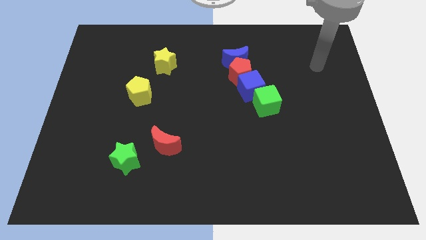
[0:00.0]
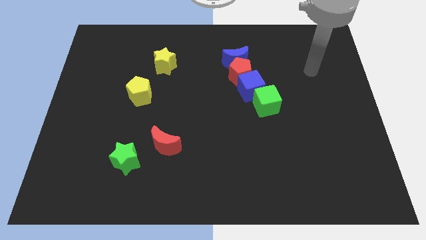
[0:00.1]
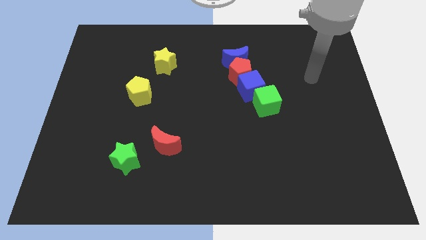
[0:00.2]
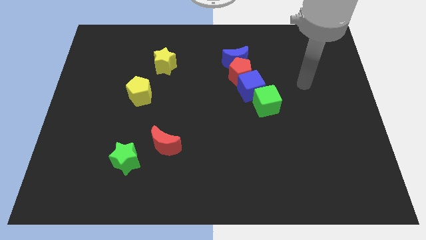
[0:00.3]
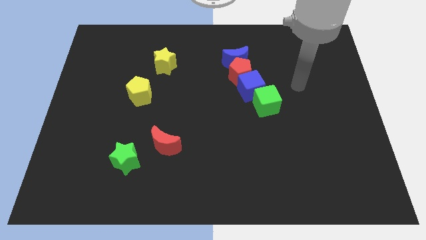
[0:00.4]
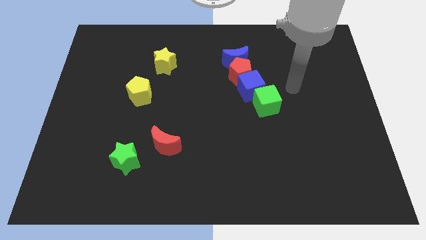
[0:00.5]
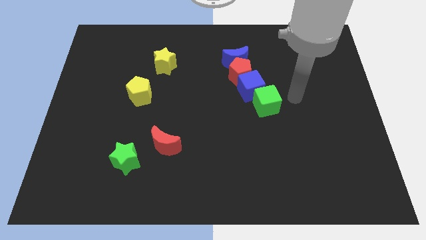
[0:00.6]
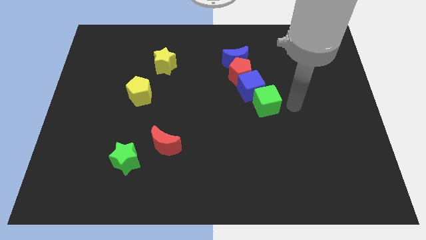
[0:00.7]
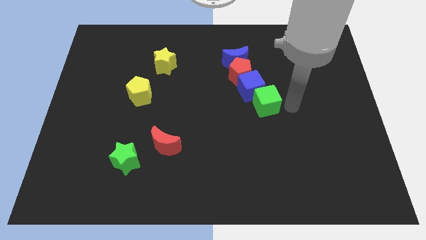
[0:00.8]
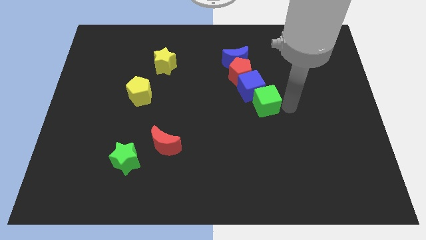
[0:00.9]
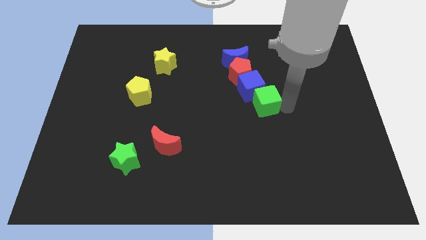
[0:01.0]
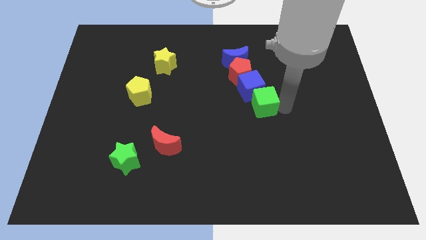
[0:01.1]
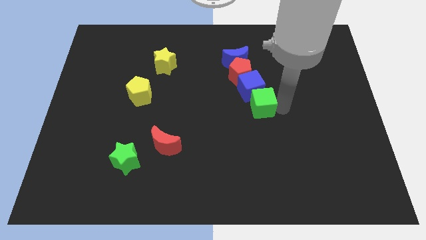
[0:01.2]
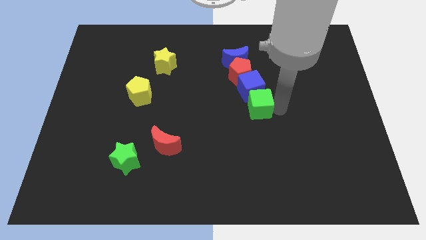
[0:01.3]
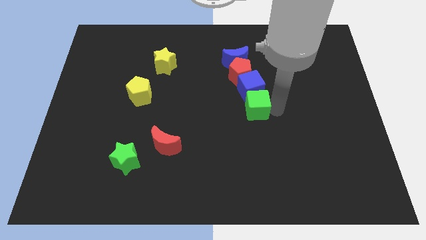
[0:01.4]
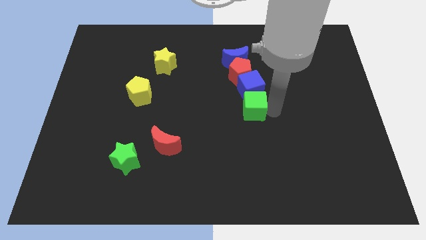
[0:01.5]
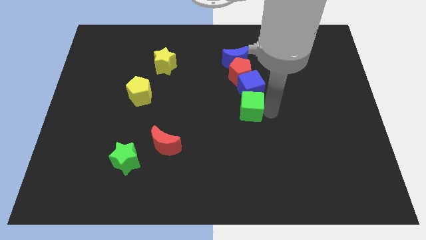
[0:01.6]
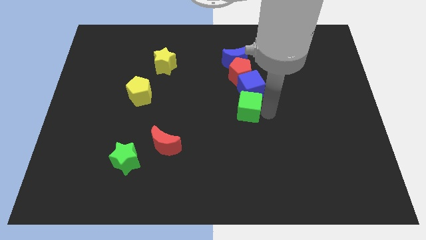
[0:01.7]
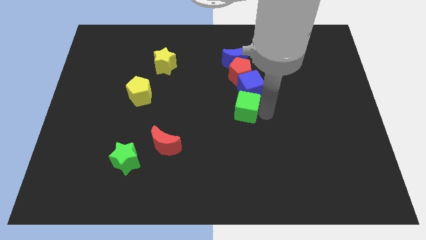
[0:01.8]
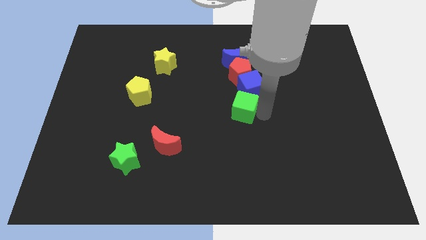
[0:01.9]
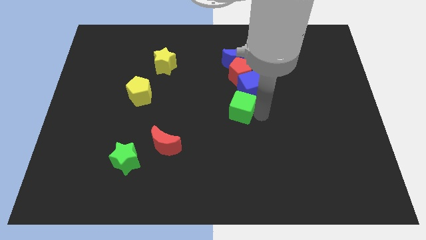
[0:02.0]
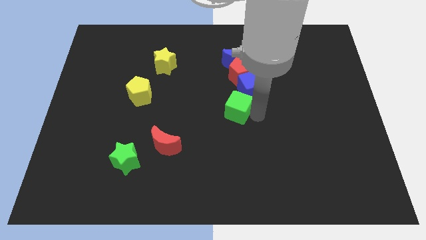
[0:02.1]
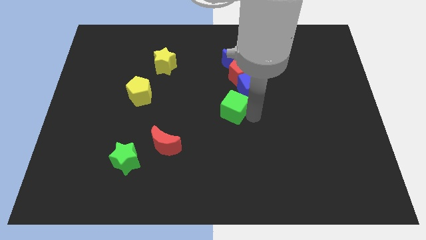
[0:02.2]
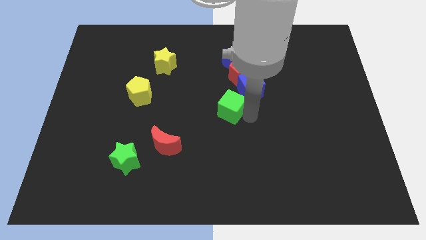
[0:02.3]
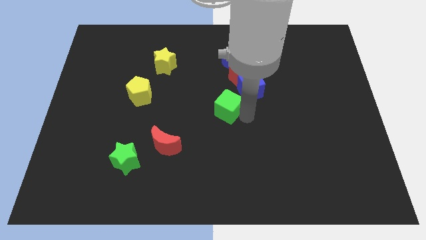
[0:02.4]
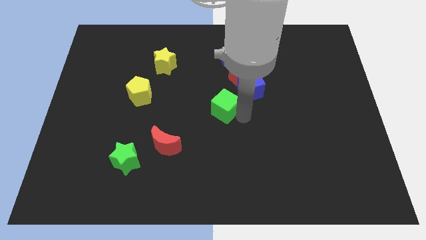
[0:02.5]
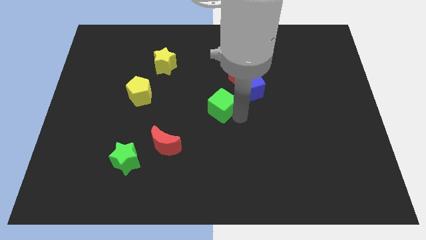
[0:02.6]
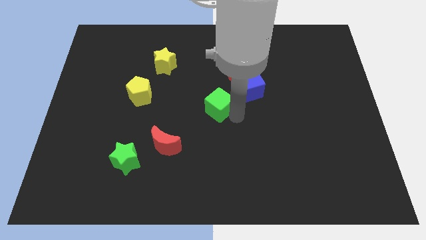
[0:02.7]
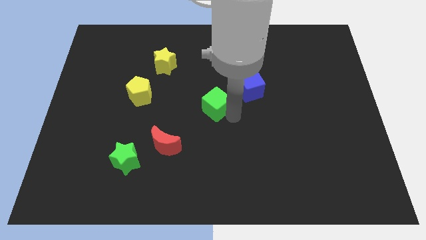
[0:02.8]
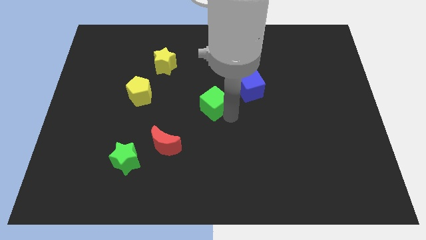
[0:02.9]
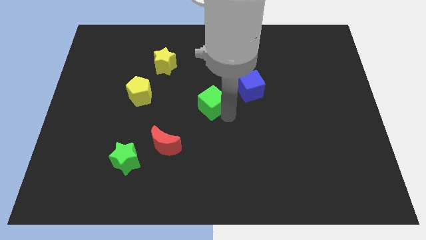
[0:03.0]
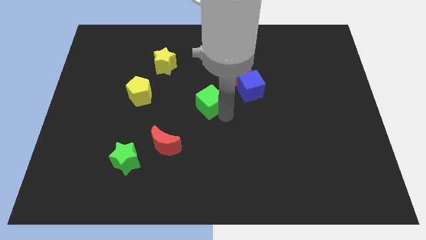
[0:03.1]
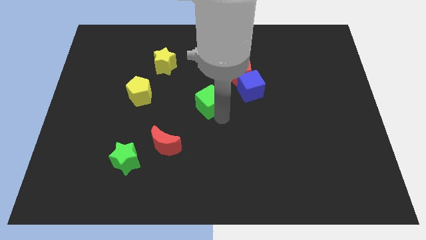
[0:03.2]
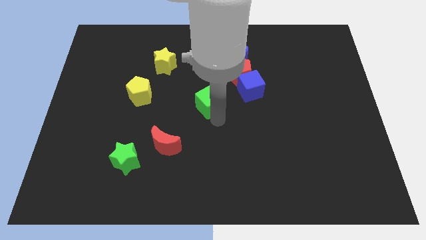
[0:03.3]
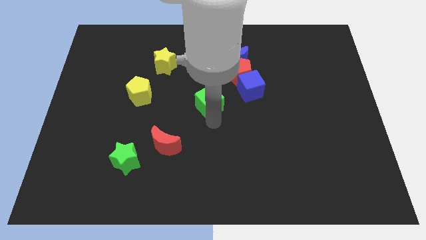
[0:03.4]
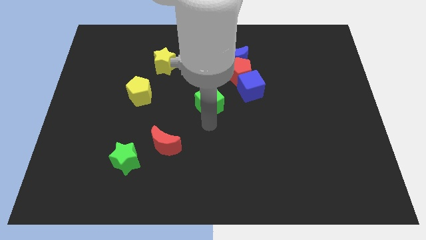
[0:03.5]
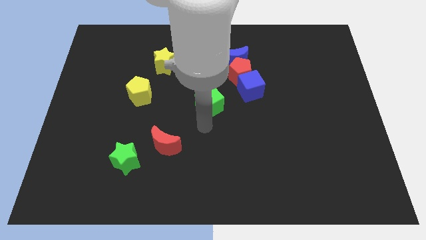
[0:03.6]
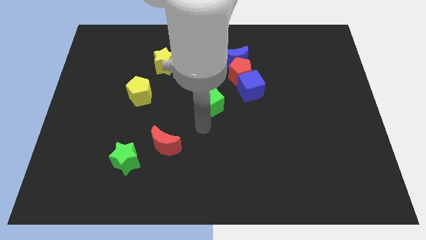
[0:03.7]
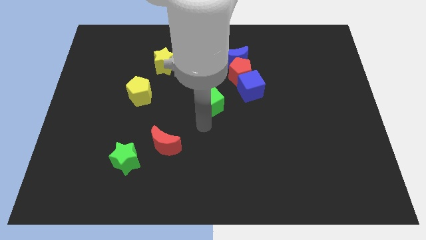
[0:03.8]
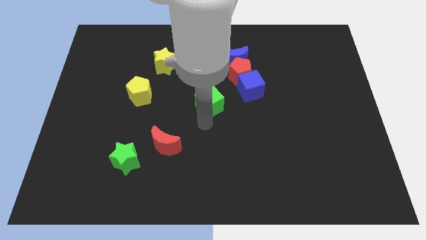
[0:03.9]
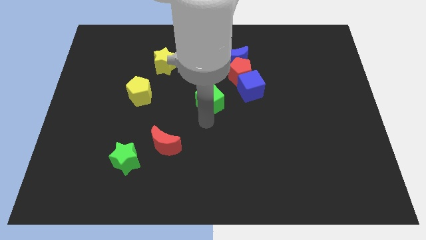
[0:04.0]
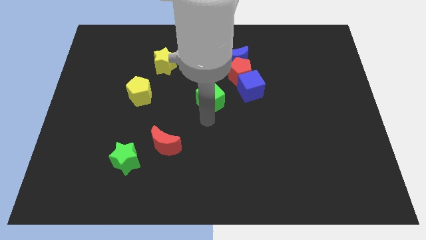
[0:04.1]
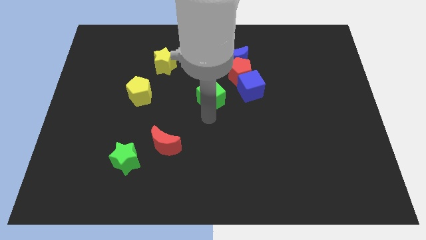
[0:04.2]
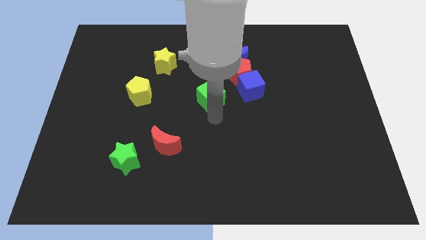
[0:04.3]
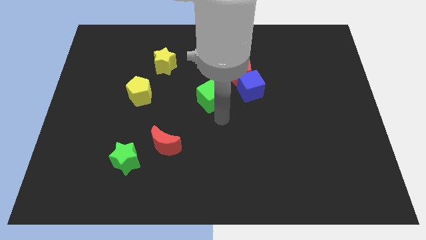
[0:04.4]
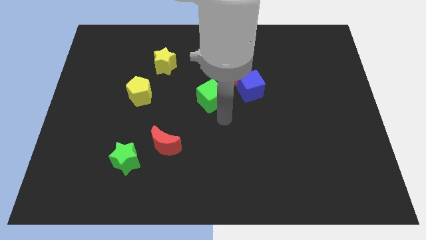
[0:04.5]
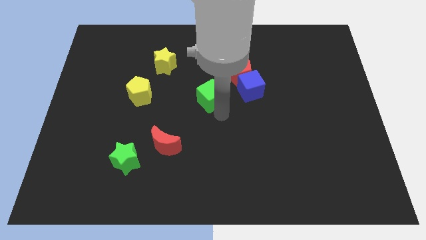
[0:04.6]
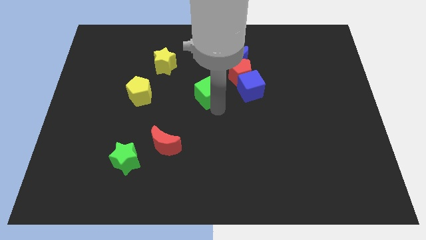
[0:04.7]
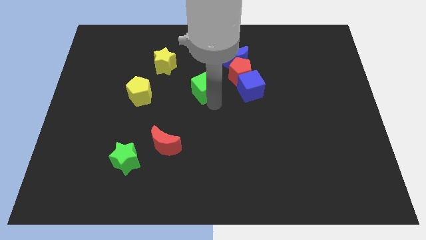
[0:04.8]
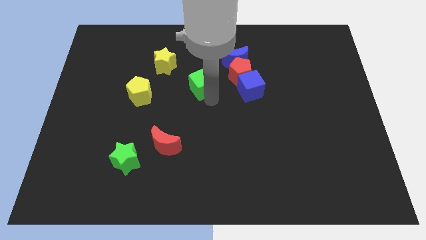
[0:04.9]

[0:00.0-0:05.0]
move the green cube to the bottom right side of the yellow star

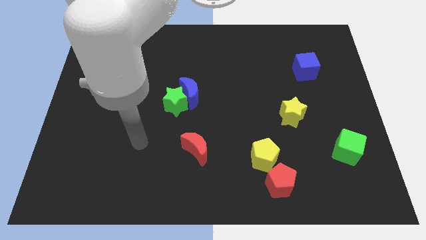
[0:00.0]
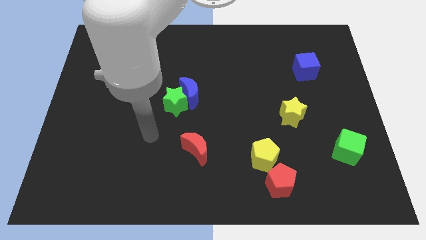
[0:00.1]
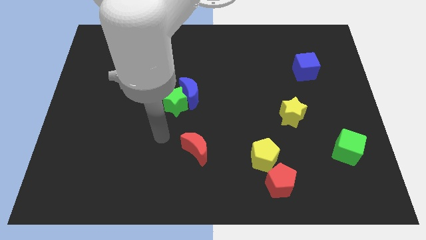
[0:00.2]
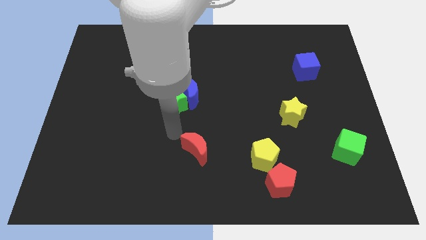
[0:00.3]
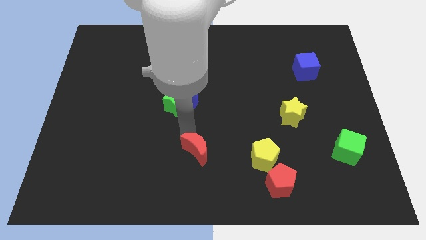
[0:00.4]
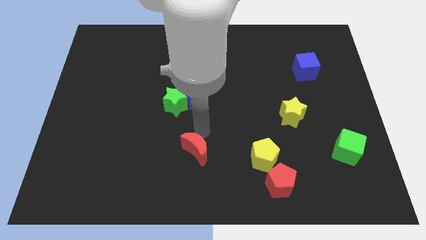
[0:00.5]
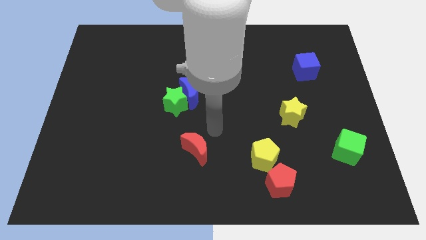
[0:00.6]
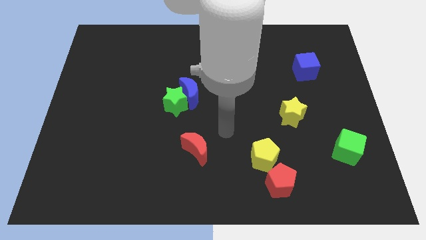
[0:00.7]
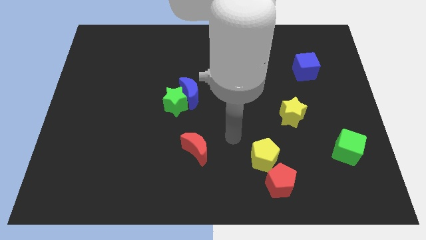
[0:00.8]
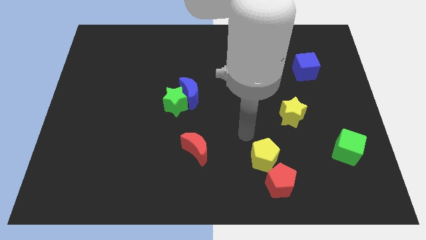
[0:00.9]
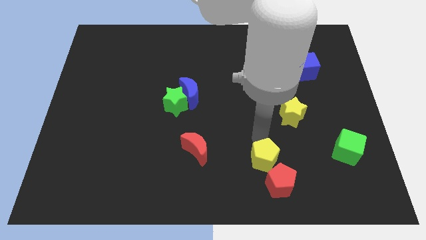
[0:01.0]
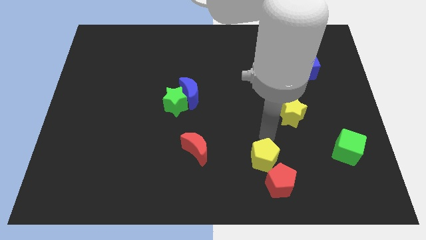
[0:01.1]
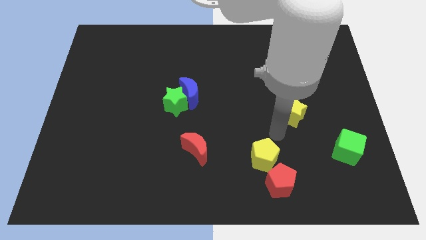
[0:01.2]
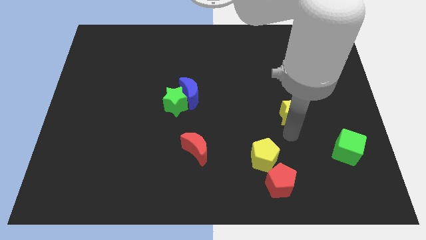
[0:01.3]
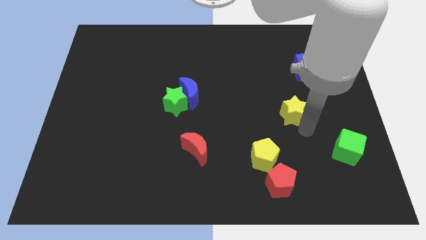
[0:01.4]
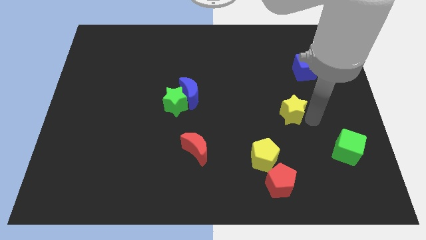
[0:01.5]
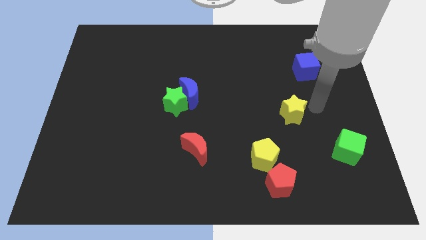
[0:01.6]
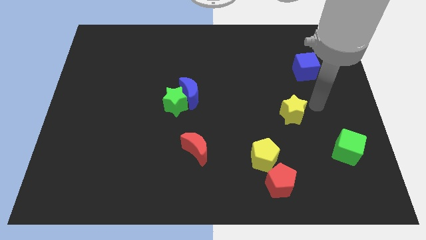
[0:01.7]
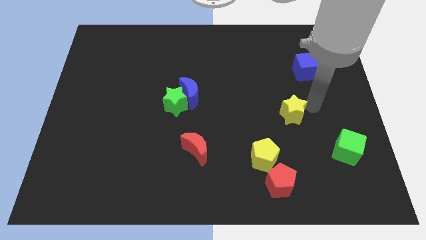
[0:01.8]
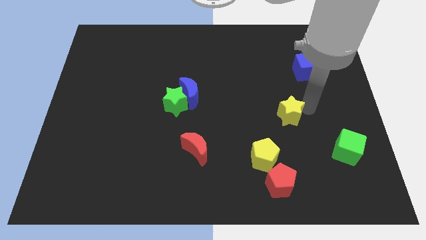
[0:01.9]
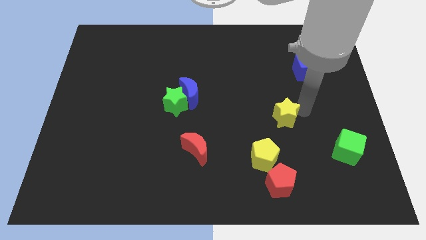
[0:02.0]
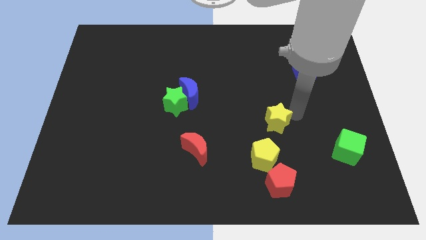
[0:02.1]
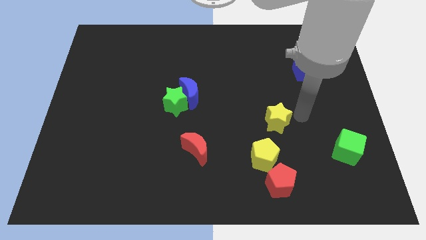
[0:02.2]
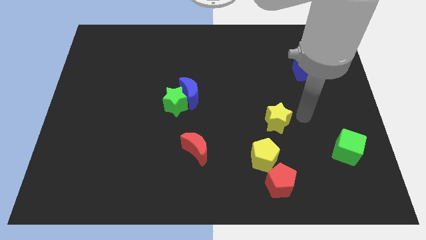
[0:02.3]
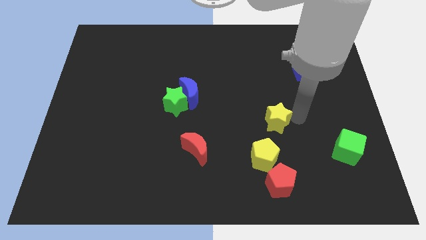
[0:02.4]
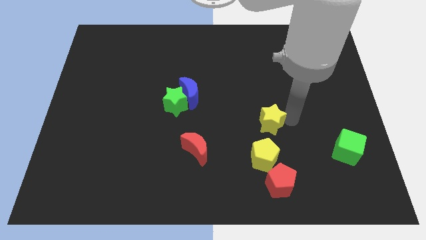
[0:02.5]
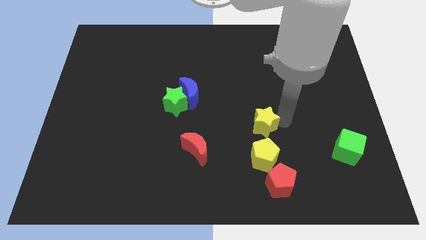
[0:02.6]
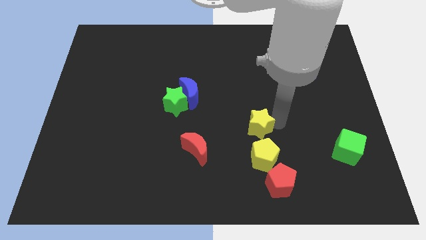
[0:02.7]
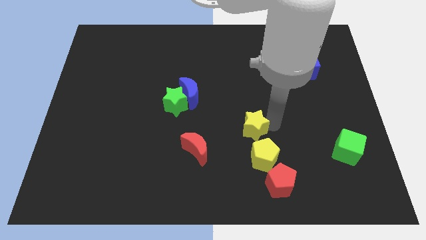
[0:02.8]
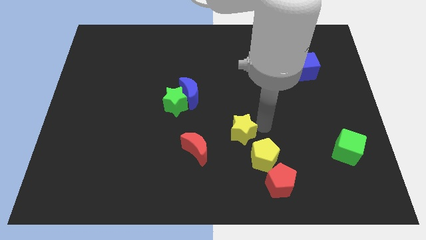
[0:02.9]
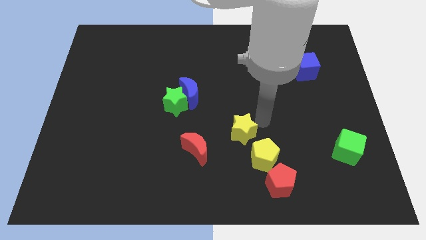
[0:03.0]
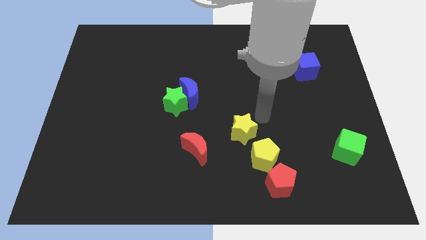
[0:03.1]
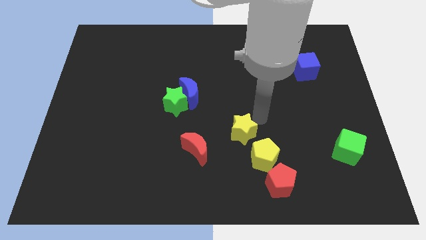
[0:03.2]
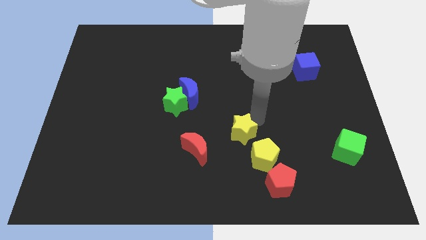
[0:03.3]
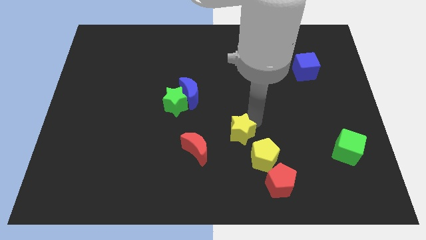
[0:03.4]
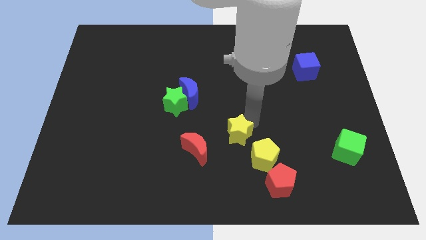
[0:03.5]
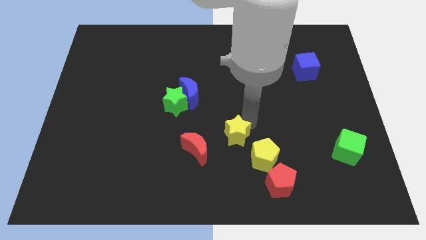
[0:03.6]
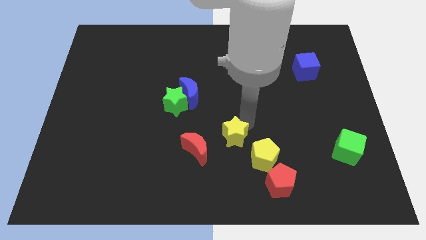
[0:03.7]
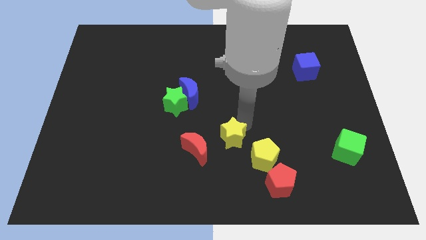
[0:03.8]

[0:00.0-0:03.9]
move the yellow star left of the yellow pentagon
